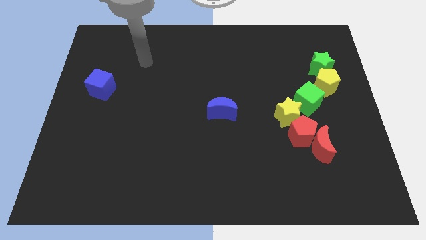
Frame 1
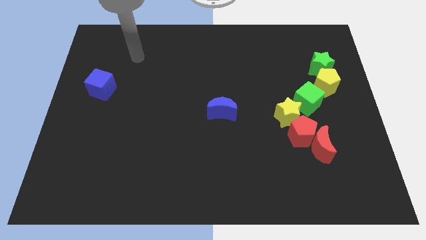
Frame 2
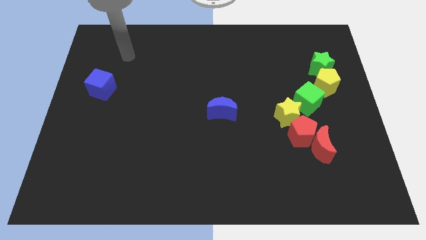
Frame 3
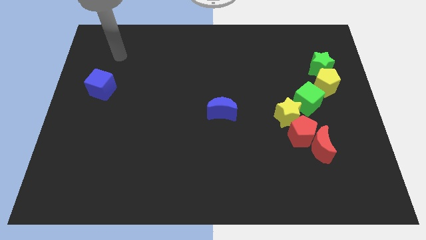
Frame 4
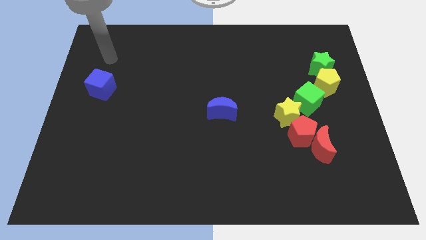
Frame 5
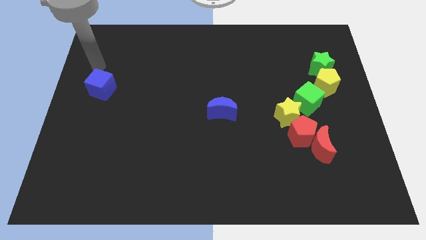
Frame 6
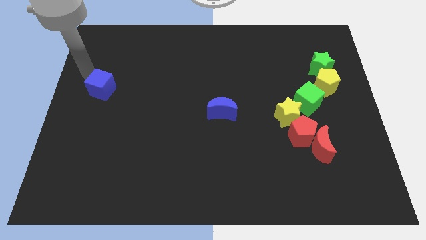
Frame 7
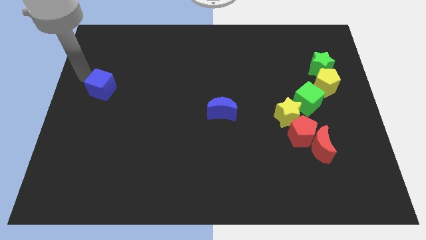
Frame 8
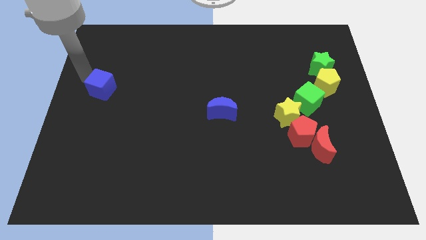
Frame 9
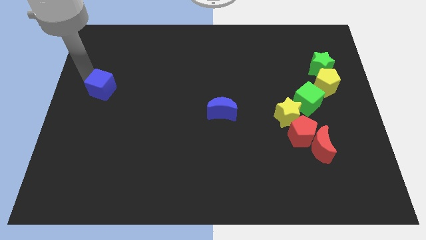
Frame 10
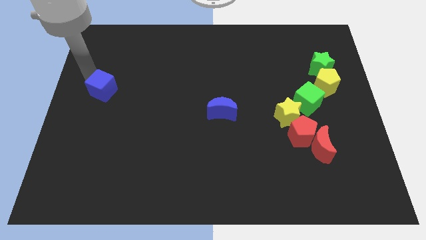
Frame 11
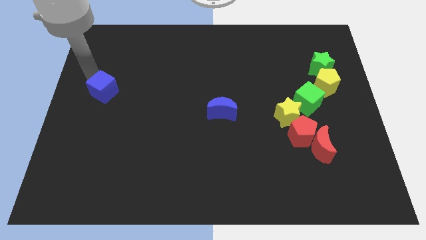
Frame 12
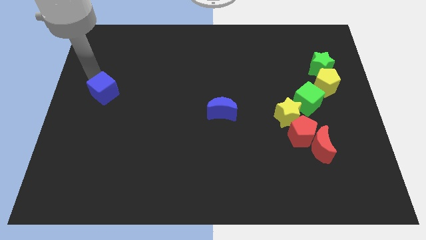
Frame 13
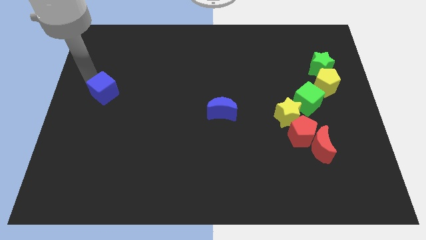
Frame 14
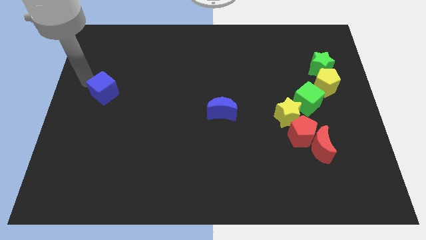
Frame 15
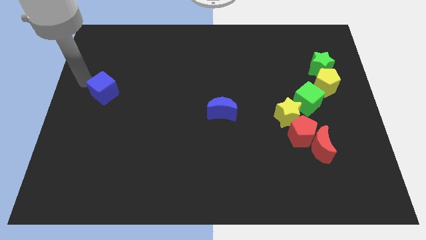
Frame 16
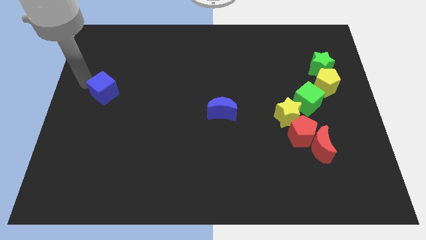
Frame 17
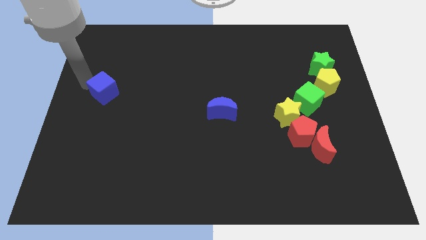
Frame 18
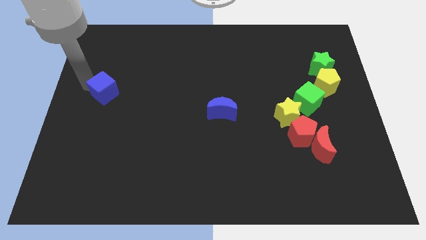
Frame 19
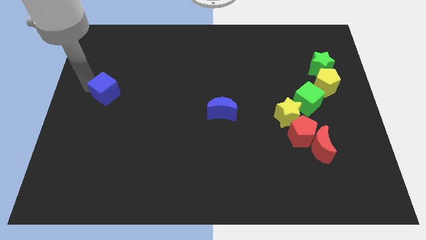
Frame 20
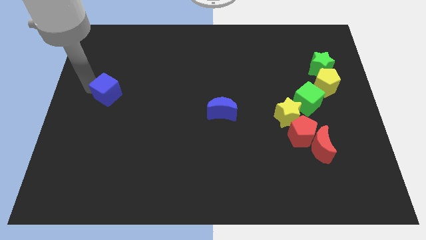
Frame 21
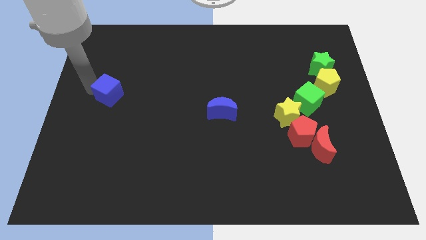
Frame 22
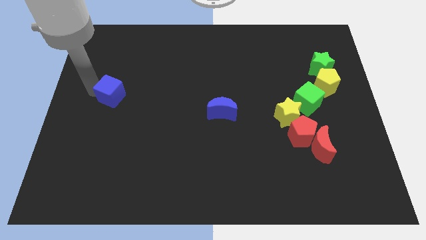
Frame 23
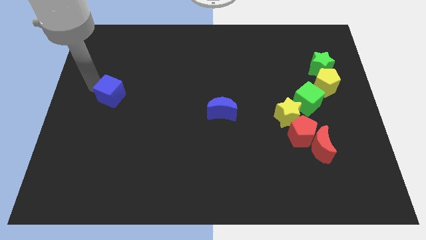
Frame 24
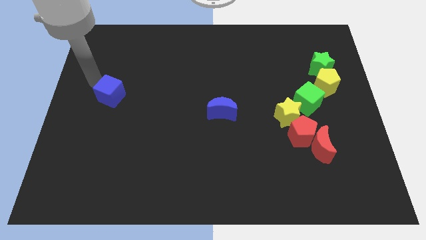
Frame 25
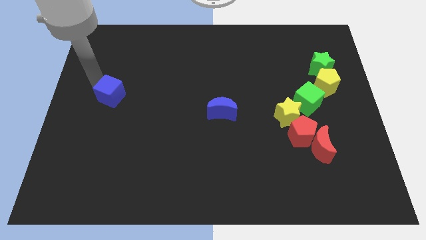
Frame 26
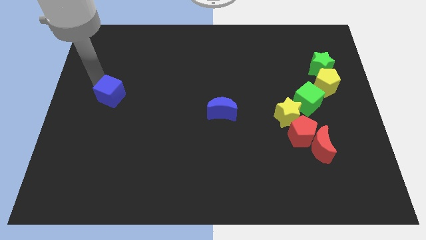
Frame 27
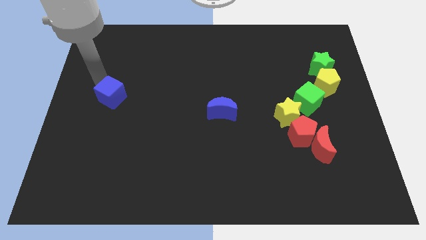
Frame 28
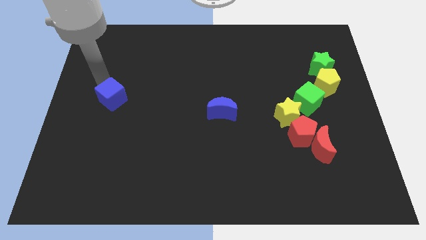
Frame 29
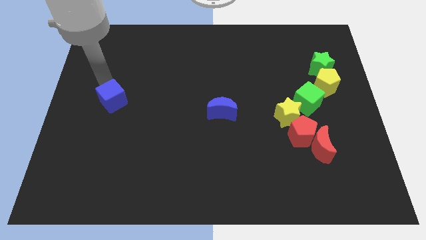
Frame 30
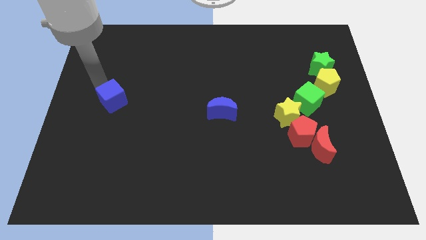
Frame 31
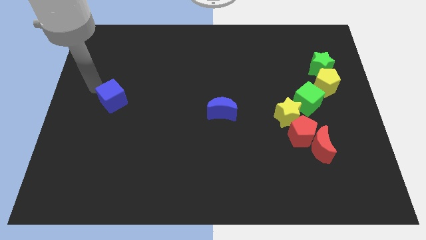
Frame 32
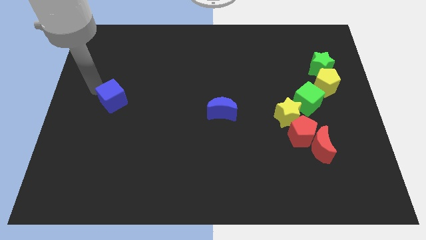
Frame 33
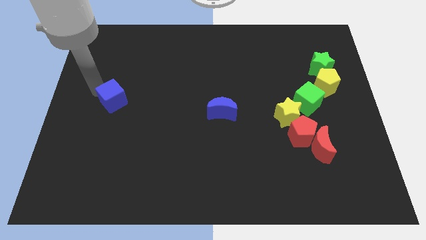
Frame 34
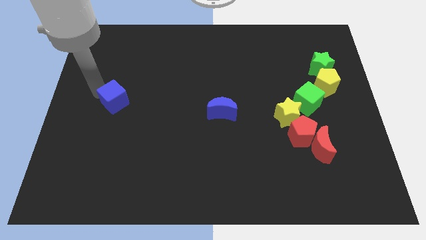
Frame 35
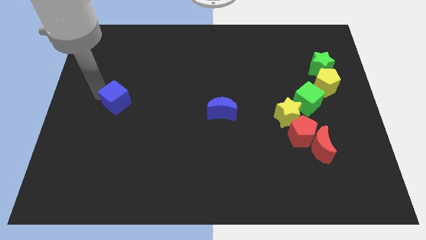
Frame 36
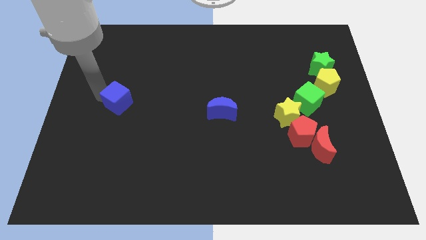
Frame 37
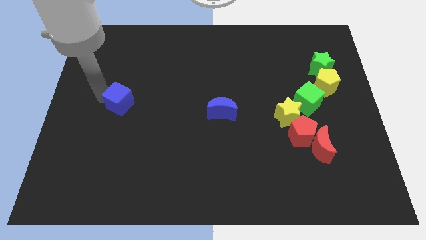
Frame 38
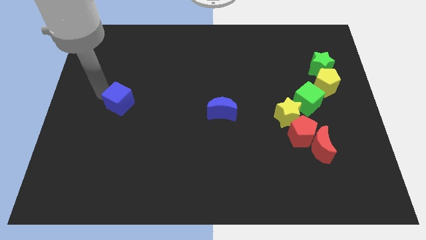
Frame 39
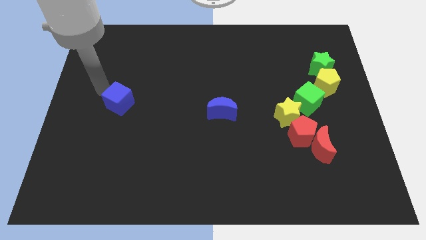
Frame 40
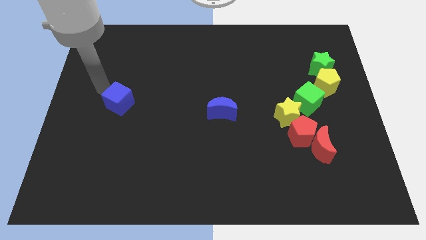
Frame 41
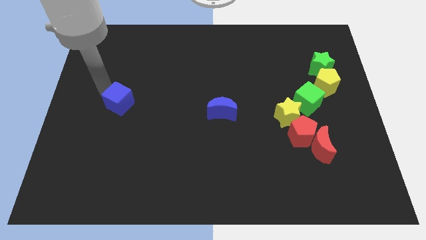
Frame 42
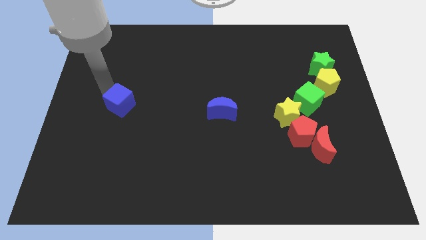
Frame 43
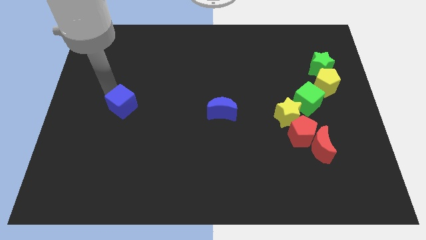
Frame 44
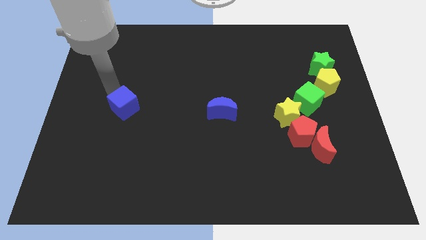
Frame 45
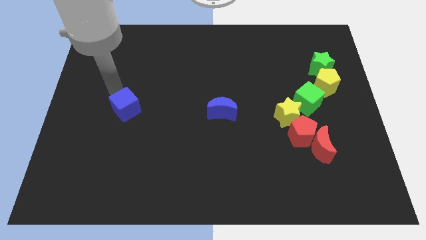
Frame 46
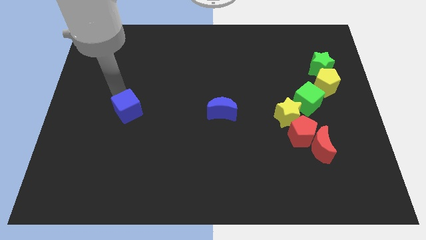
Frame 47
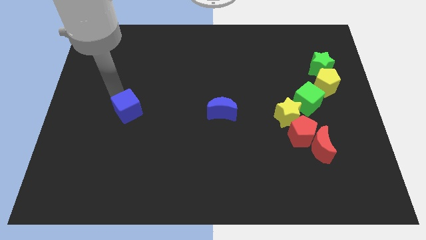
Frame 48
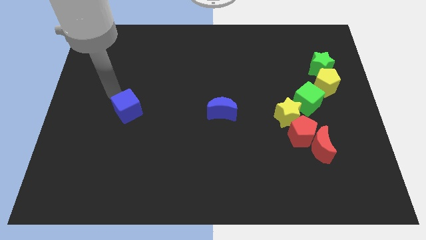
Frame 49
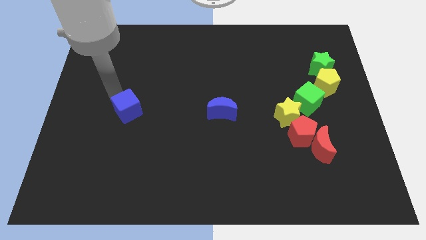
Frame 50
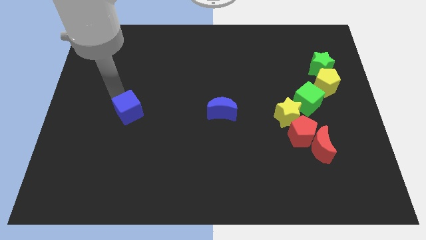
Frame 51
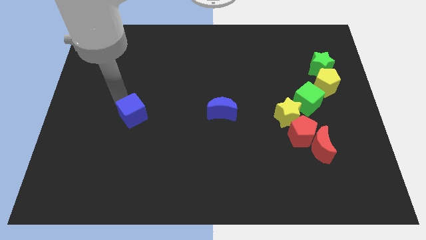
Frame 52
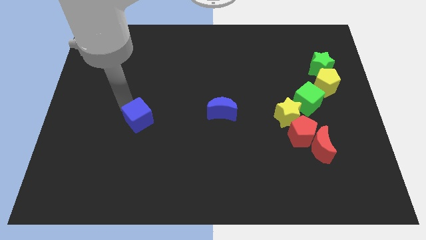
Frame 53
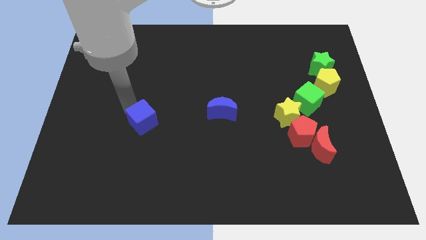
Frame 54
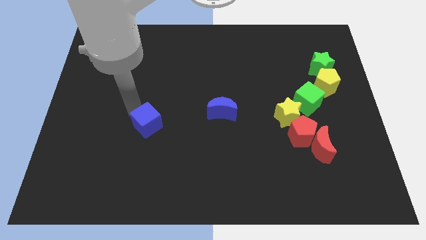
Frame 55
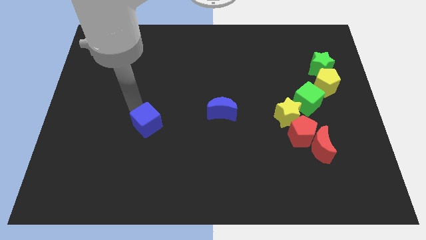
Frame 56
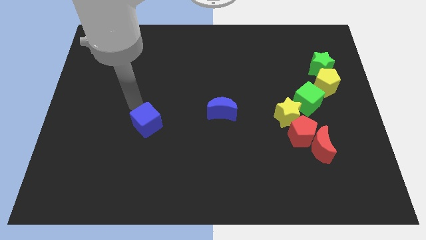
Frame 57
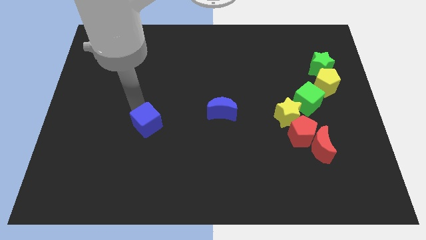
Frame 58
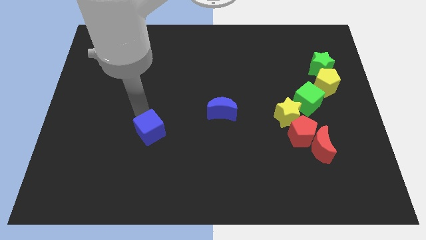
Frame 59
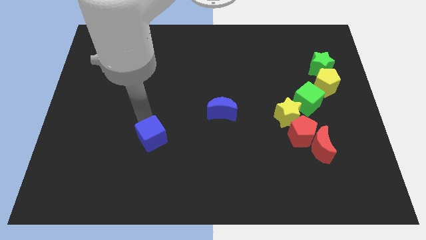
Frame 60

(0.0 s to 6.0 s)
push the blue cube down and right diagonally

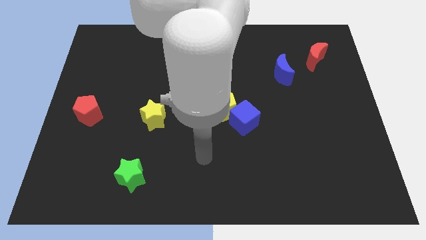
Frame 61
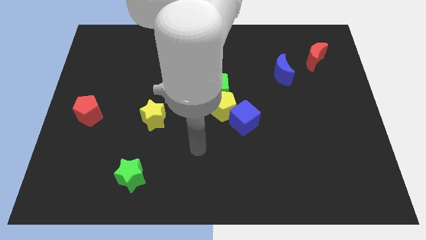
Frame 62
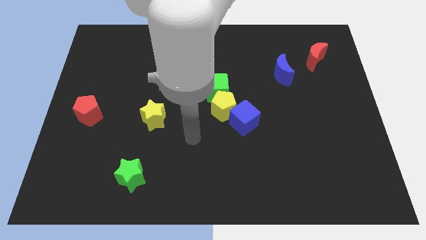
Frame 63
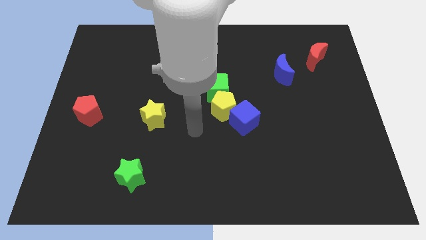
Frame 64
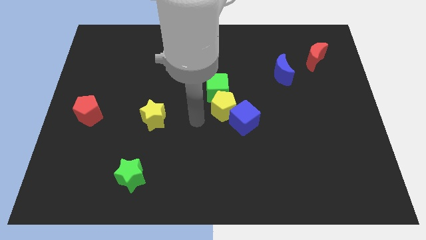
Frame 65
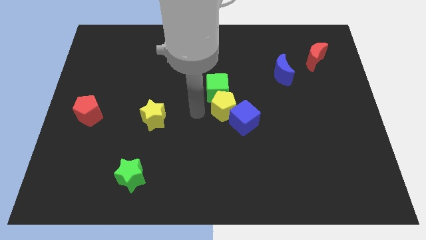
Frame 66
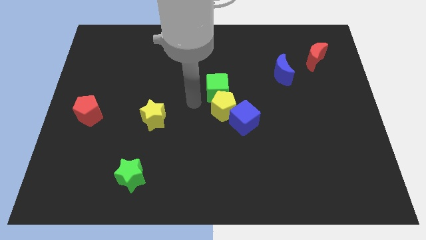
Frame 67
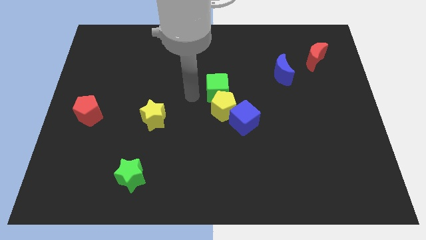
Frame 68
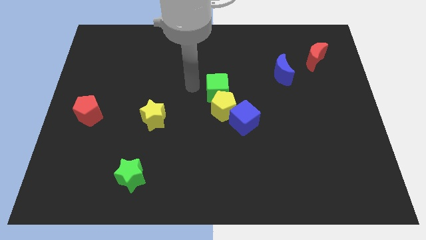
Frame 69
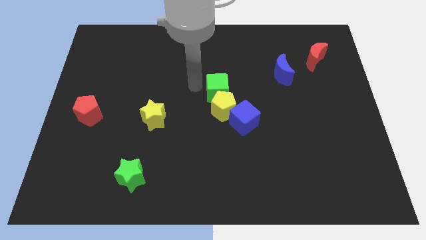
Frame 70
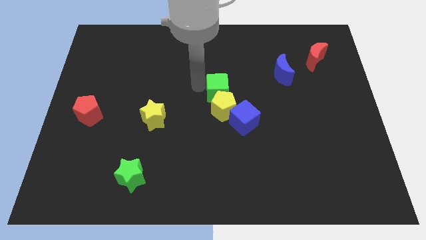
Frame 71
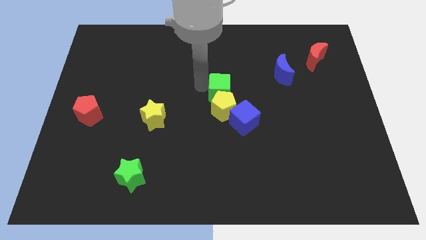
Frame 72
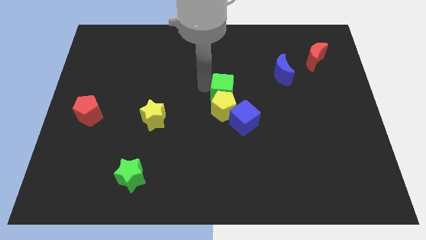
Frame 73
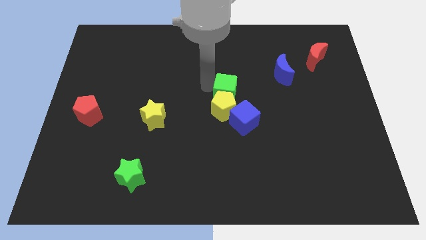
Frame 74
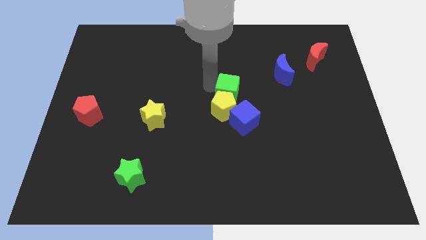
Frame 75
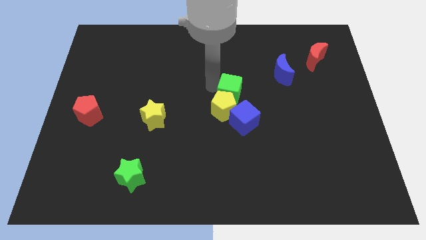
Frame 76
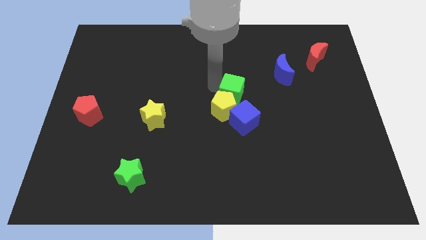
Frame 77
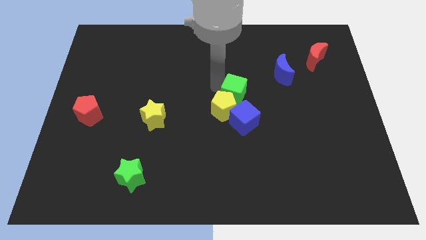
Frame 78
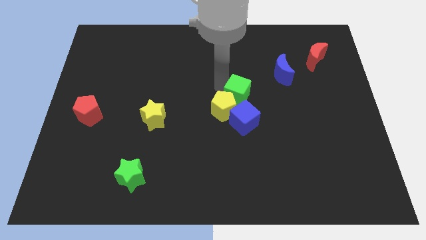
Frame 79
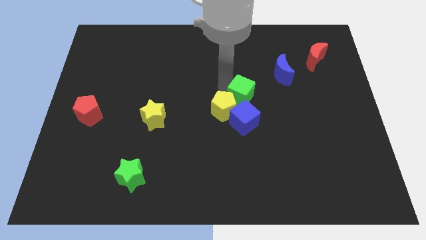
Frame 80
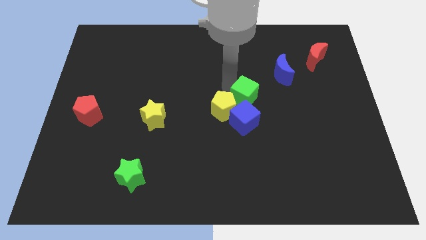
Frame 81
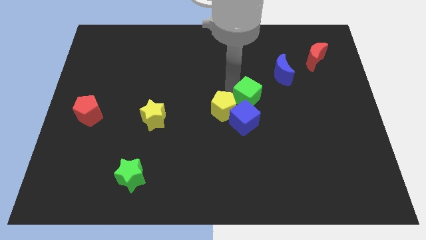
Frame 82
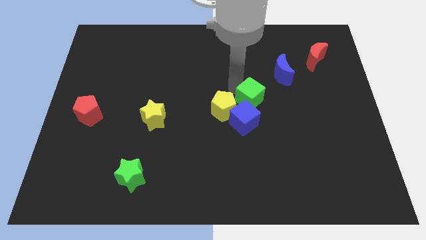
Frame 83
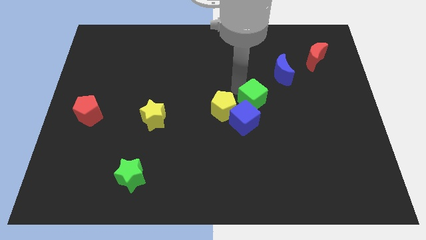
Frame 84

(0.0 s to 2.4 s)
push the green cube a little downwards and to the right diagonally
